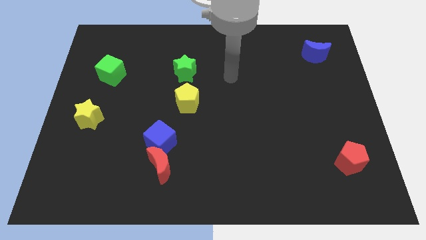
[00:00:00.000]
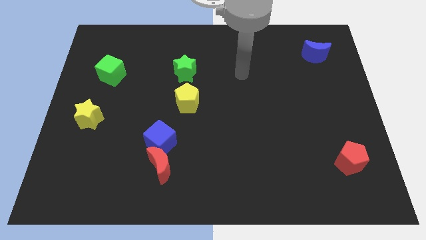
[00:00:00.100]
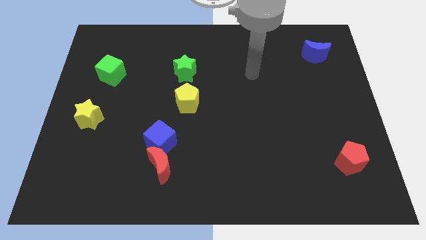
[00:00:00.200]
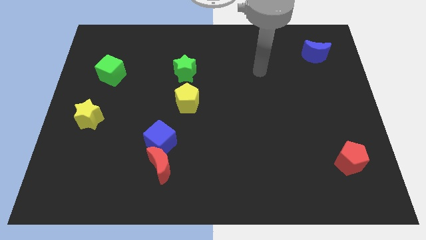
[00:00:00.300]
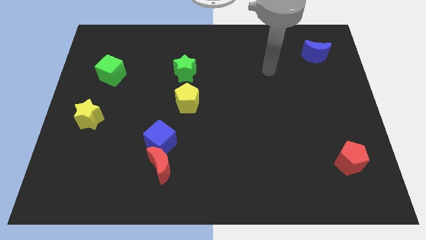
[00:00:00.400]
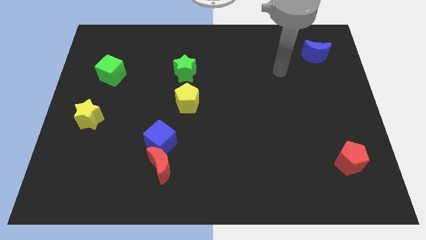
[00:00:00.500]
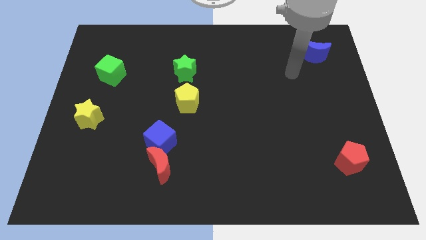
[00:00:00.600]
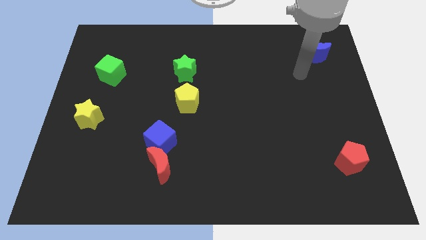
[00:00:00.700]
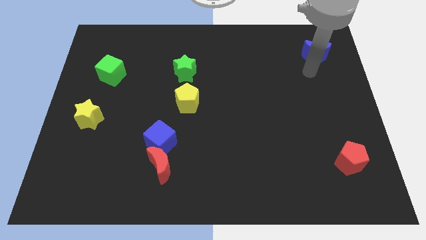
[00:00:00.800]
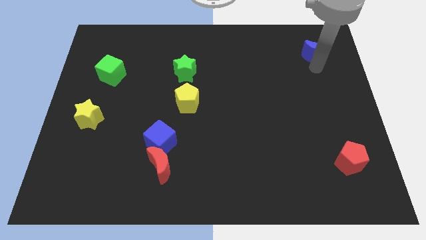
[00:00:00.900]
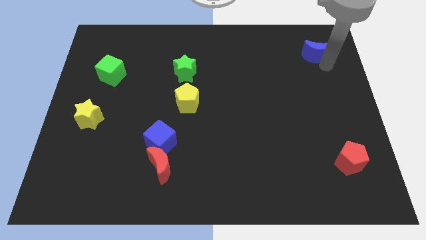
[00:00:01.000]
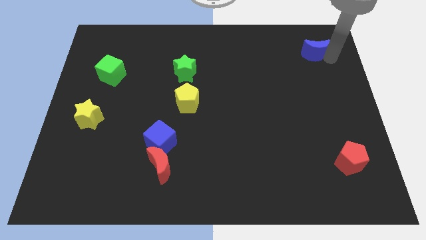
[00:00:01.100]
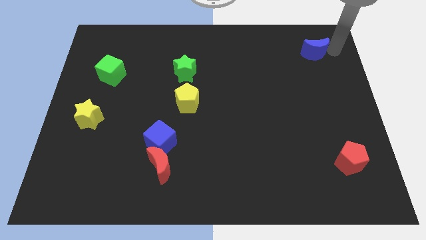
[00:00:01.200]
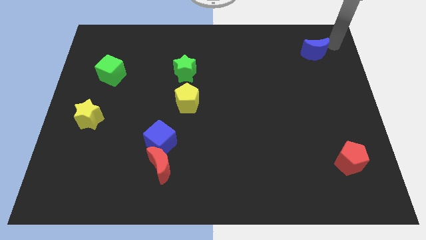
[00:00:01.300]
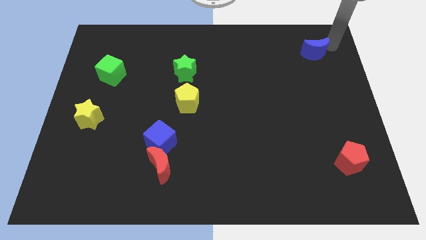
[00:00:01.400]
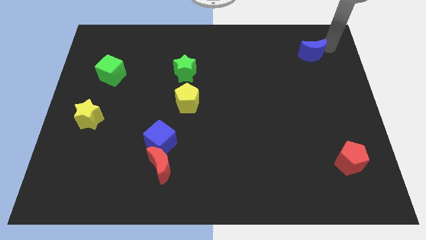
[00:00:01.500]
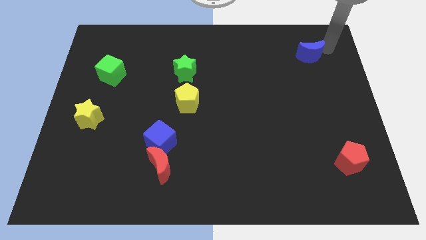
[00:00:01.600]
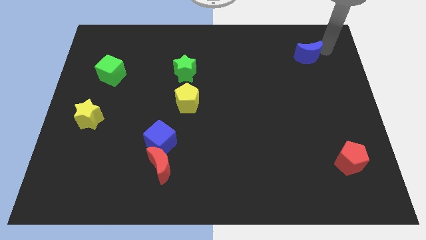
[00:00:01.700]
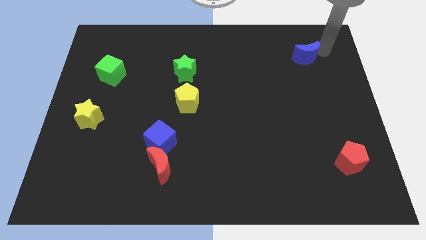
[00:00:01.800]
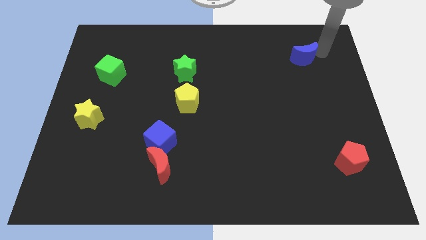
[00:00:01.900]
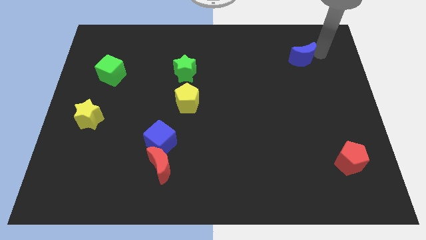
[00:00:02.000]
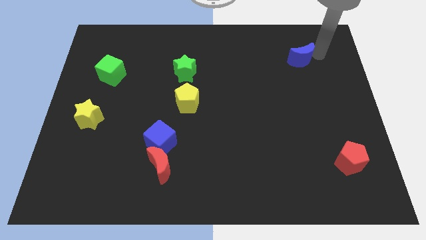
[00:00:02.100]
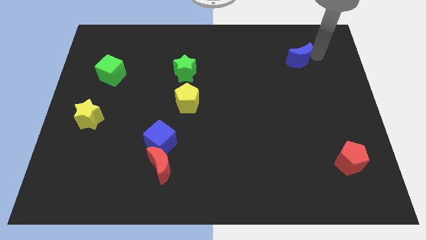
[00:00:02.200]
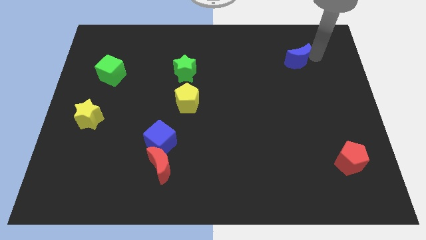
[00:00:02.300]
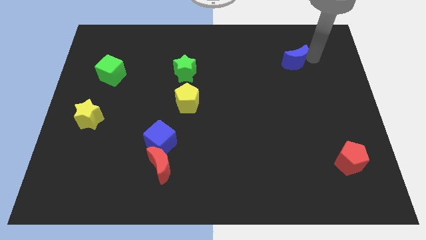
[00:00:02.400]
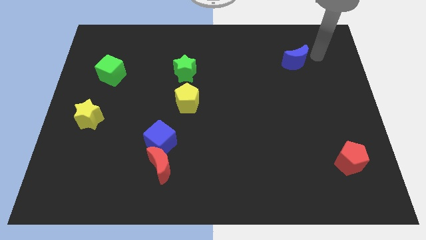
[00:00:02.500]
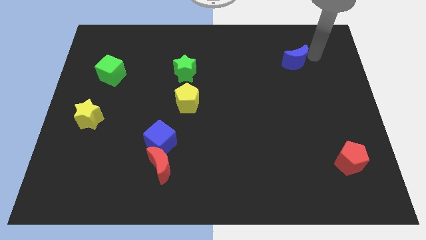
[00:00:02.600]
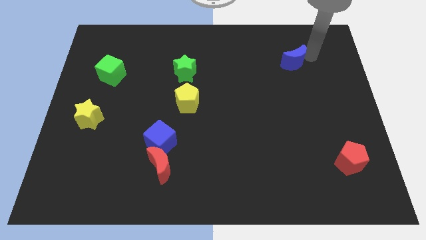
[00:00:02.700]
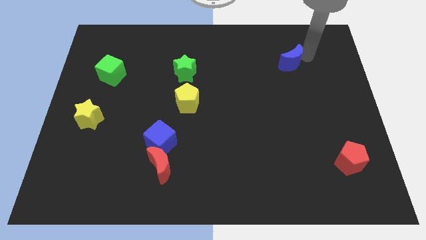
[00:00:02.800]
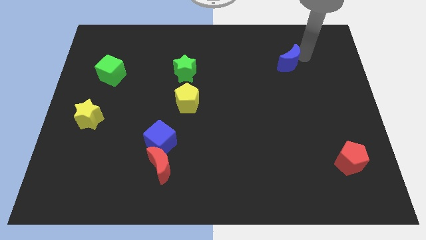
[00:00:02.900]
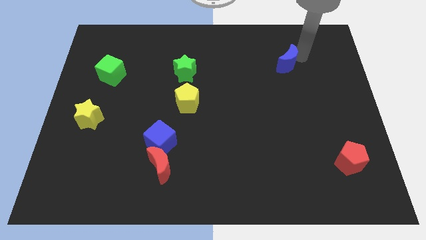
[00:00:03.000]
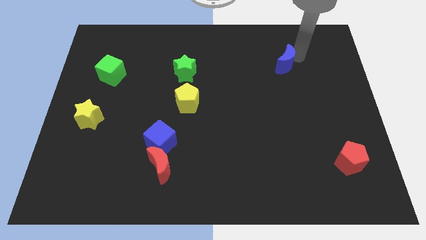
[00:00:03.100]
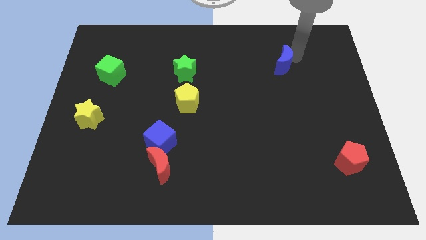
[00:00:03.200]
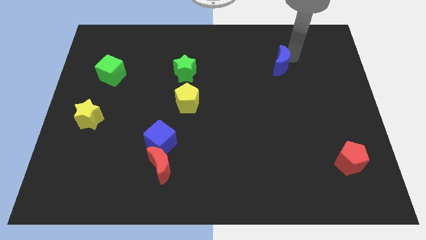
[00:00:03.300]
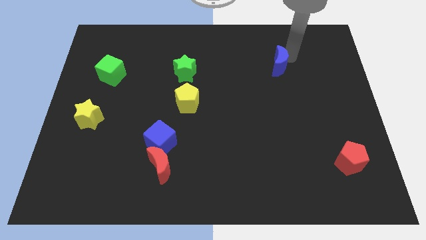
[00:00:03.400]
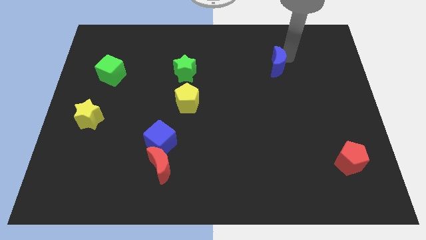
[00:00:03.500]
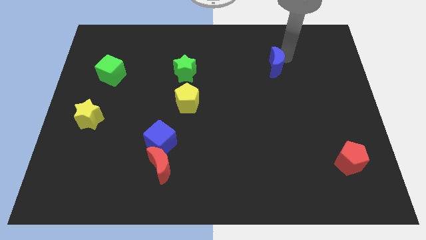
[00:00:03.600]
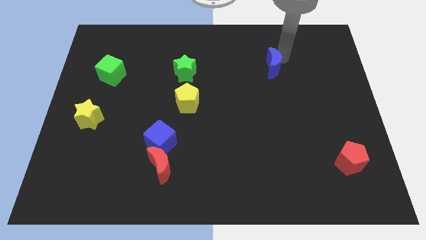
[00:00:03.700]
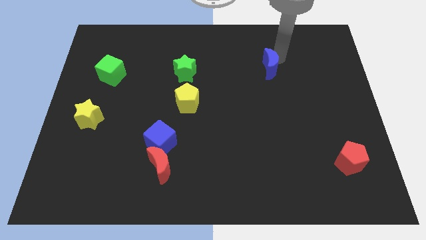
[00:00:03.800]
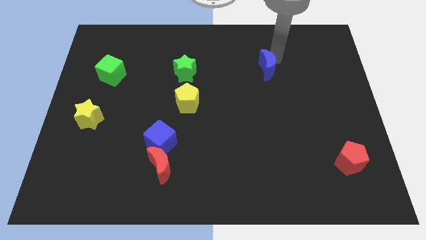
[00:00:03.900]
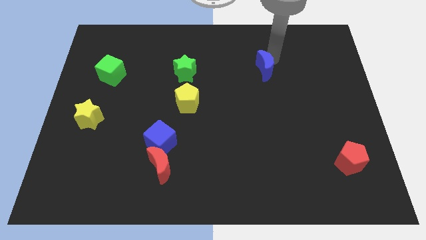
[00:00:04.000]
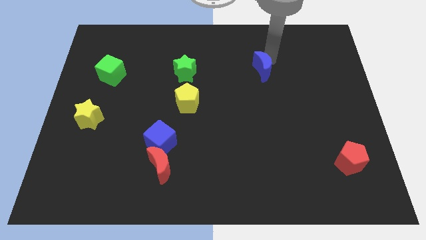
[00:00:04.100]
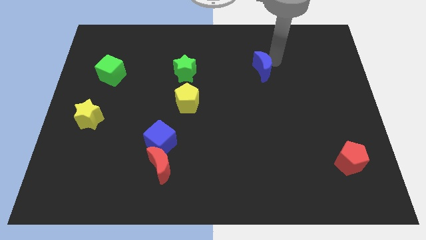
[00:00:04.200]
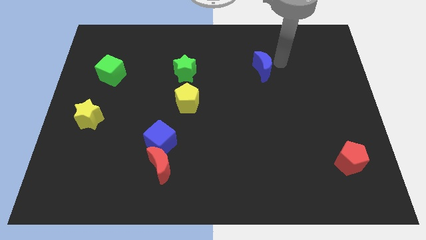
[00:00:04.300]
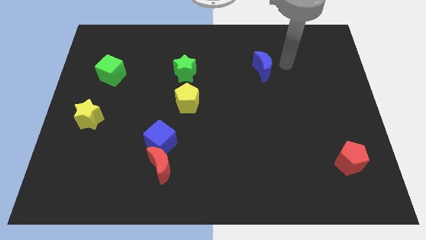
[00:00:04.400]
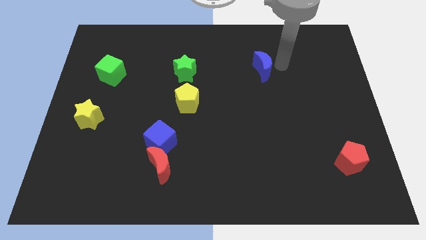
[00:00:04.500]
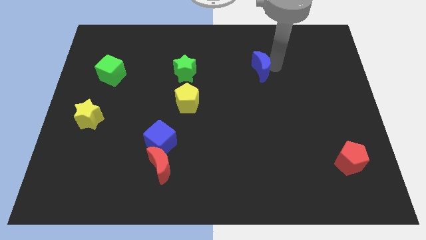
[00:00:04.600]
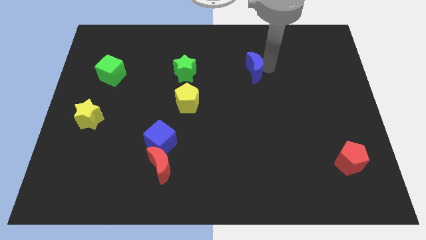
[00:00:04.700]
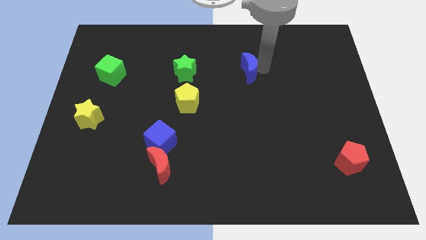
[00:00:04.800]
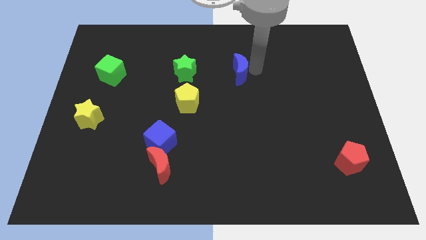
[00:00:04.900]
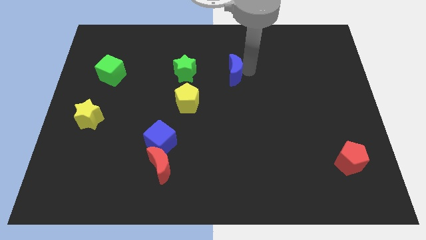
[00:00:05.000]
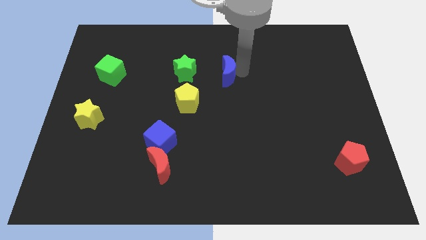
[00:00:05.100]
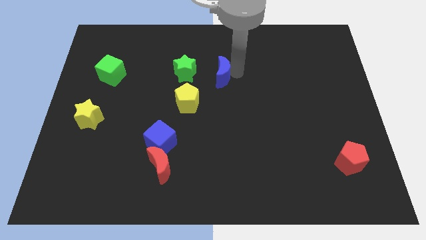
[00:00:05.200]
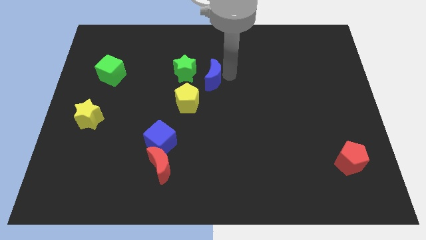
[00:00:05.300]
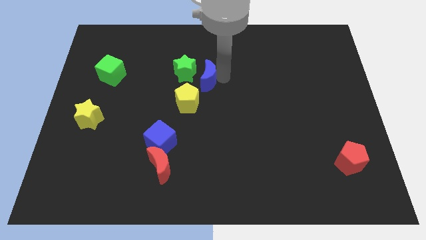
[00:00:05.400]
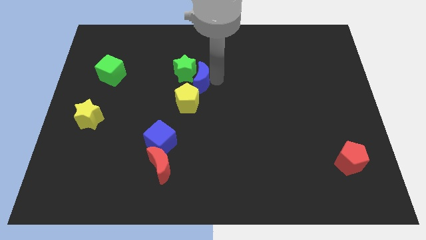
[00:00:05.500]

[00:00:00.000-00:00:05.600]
push the blue moon close to the green star
